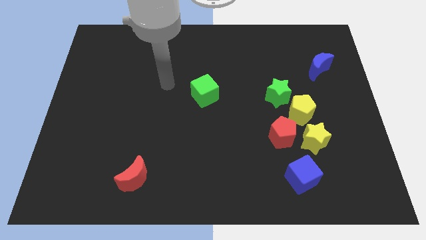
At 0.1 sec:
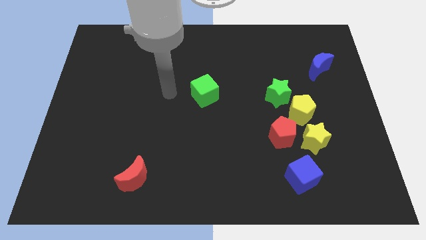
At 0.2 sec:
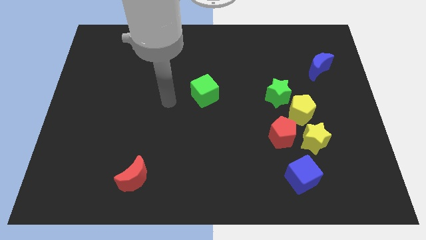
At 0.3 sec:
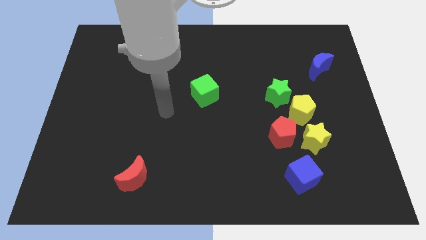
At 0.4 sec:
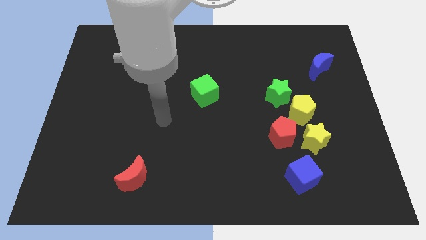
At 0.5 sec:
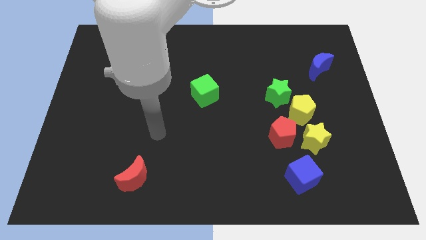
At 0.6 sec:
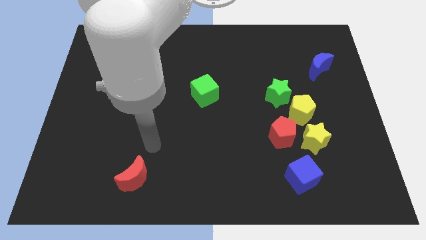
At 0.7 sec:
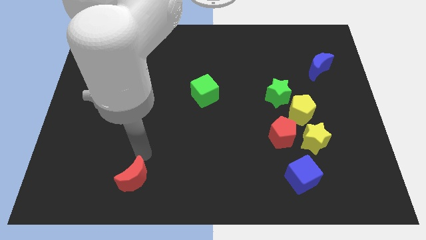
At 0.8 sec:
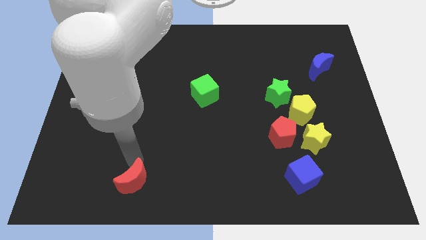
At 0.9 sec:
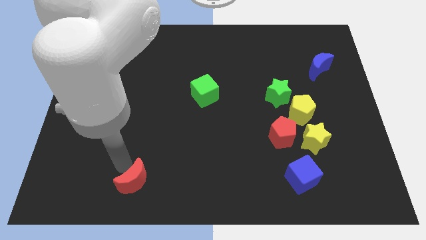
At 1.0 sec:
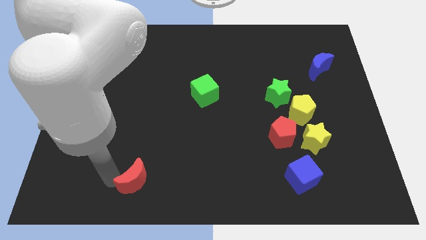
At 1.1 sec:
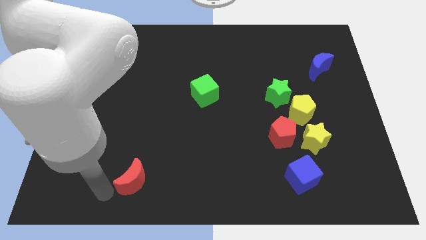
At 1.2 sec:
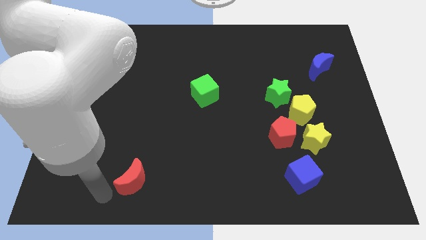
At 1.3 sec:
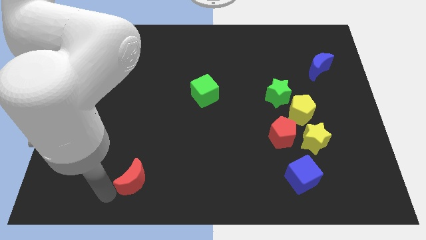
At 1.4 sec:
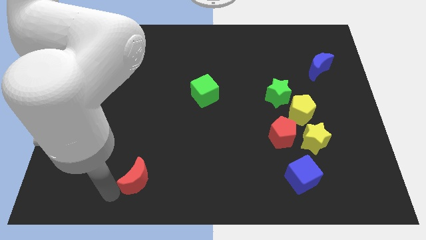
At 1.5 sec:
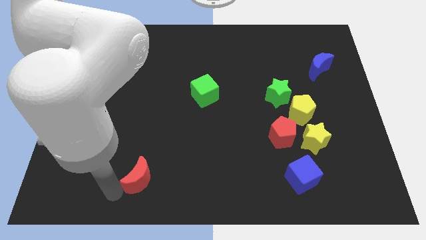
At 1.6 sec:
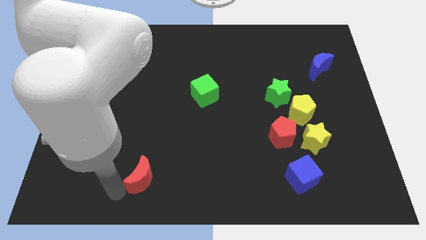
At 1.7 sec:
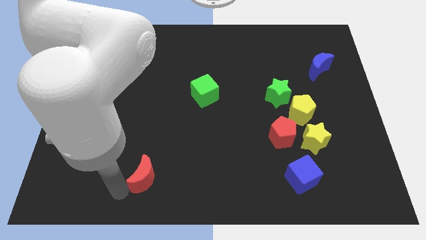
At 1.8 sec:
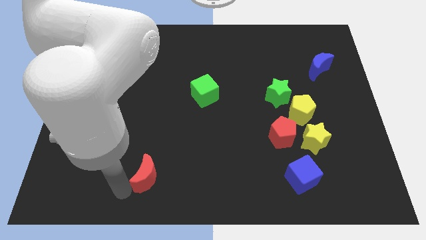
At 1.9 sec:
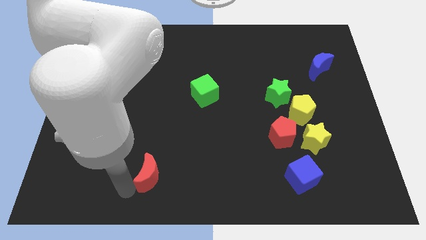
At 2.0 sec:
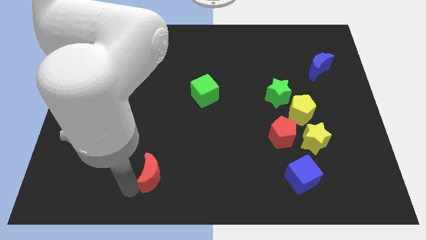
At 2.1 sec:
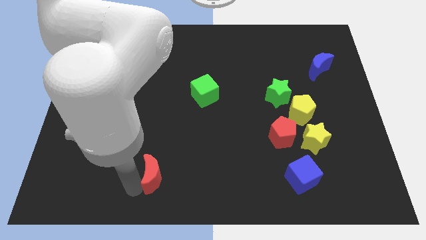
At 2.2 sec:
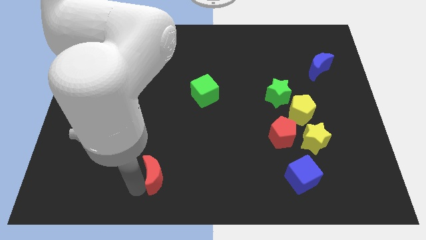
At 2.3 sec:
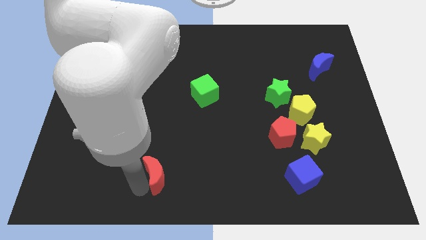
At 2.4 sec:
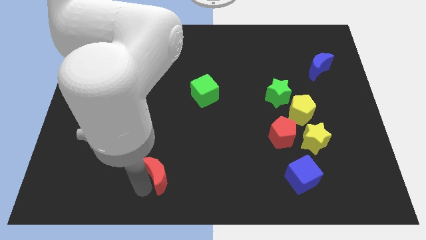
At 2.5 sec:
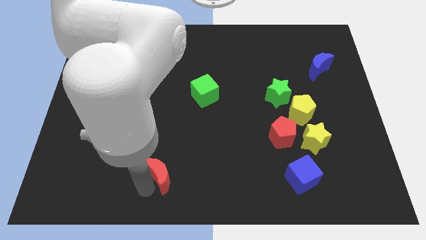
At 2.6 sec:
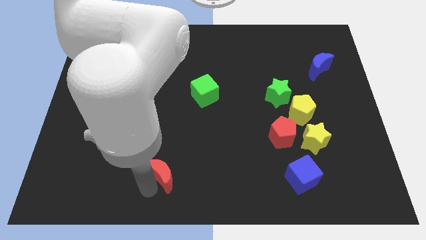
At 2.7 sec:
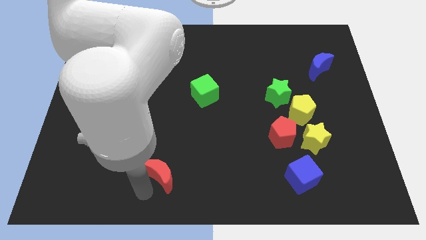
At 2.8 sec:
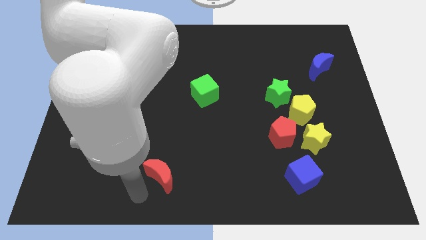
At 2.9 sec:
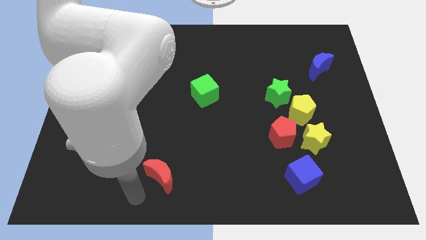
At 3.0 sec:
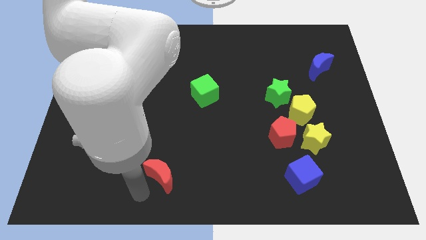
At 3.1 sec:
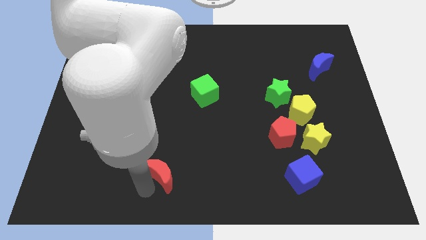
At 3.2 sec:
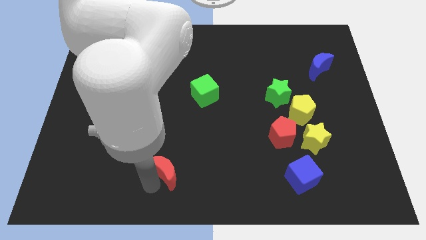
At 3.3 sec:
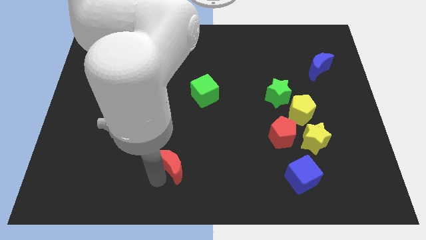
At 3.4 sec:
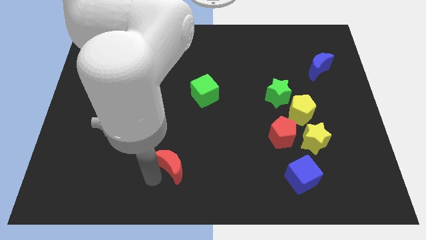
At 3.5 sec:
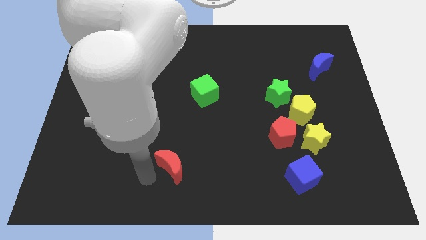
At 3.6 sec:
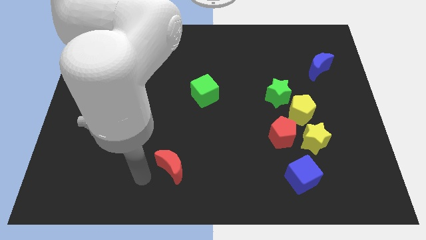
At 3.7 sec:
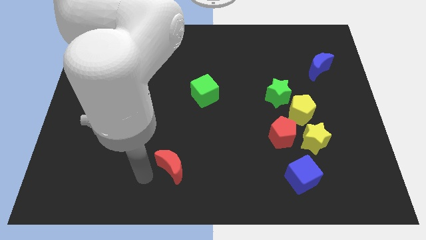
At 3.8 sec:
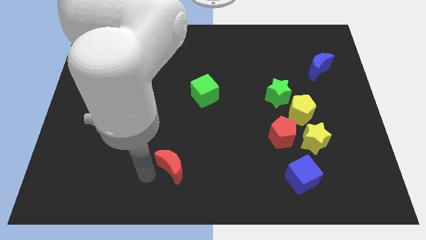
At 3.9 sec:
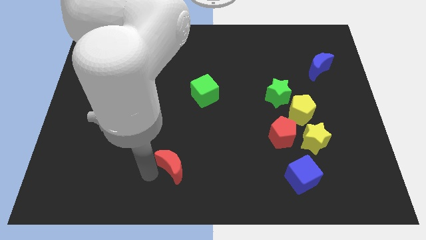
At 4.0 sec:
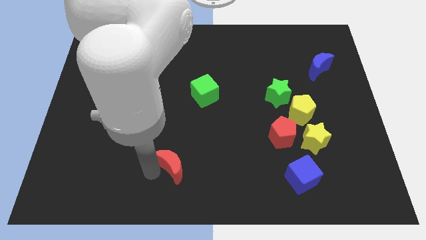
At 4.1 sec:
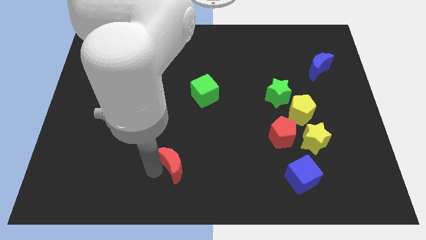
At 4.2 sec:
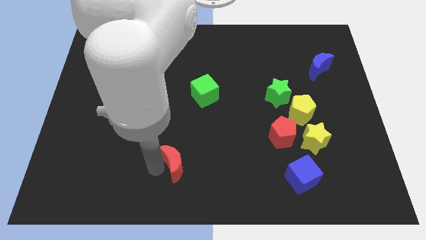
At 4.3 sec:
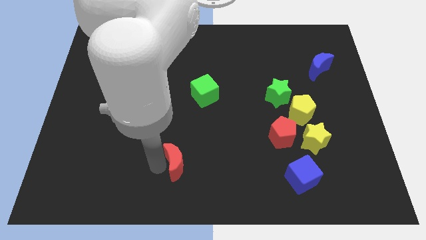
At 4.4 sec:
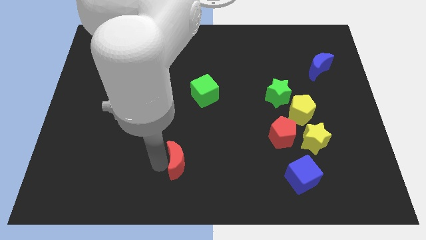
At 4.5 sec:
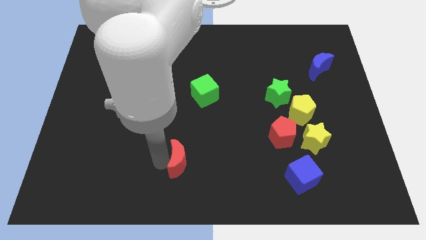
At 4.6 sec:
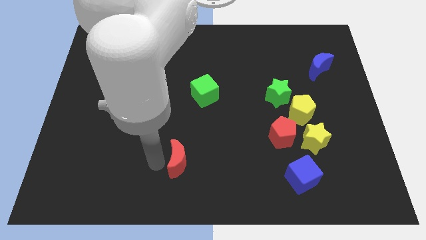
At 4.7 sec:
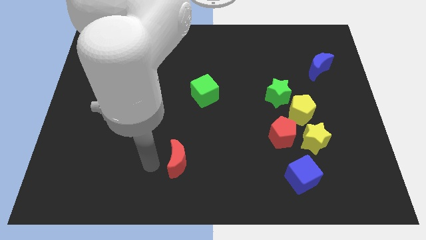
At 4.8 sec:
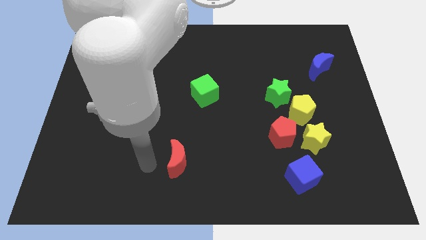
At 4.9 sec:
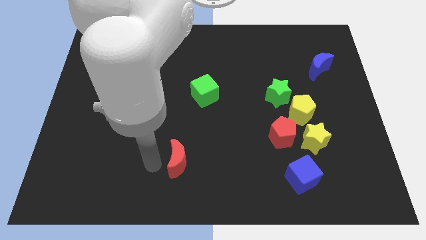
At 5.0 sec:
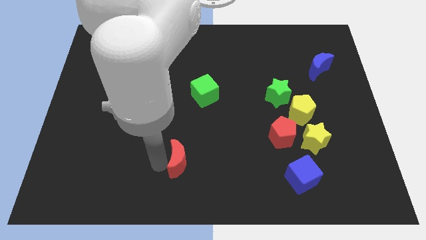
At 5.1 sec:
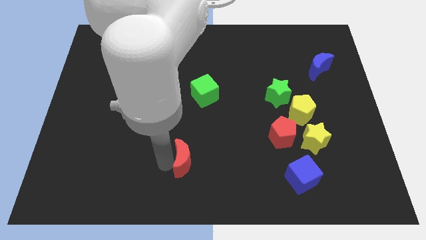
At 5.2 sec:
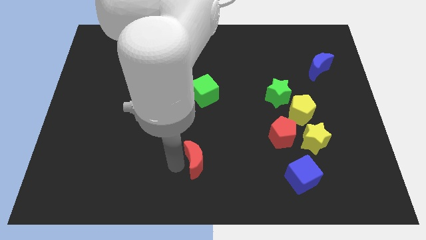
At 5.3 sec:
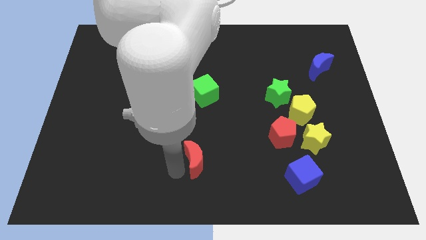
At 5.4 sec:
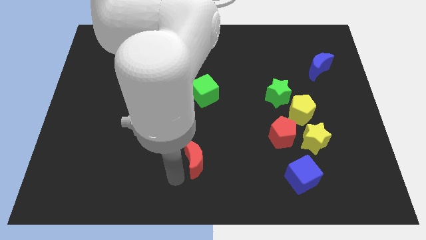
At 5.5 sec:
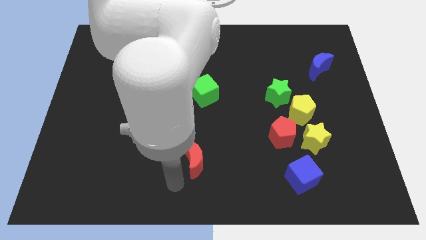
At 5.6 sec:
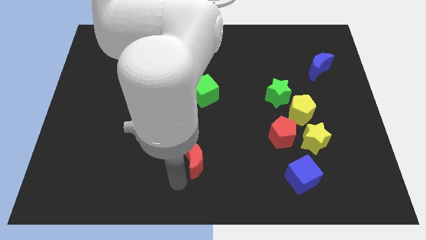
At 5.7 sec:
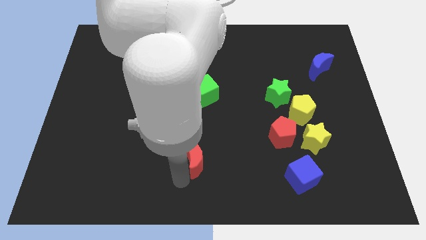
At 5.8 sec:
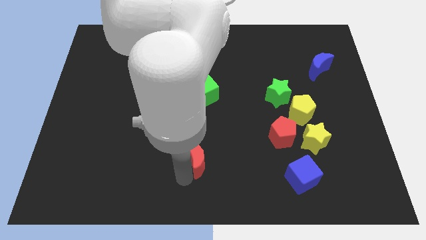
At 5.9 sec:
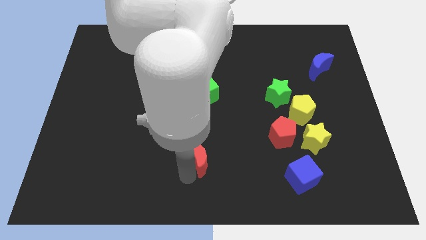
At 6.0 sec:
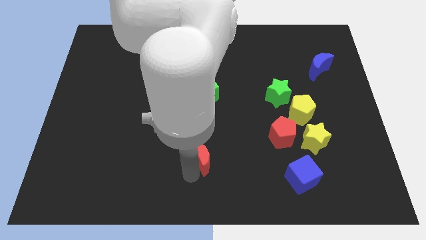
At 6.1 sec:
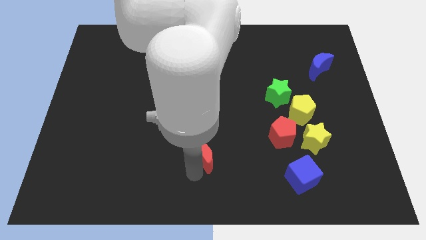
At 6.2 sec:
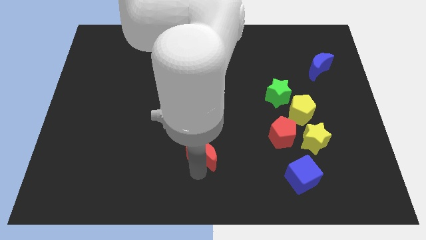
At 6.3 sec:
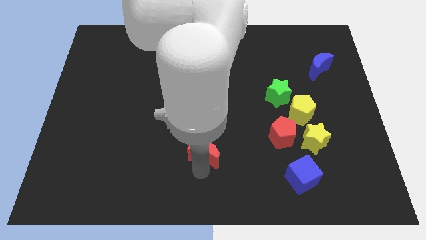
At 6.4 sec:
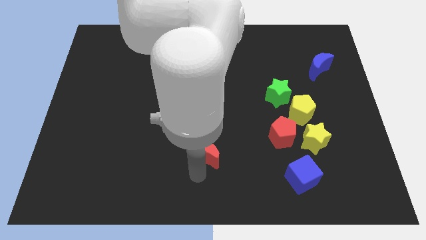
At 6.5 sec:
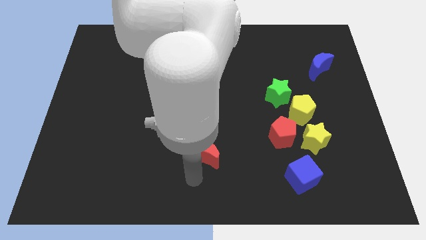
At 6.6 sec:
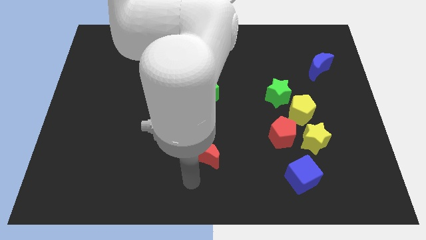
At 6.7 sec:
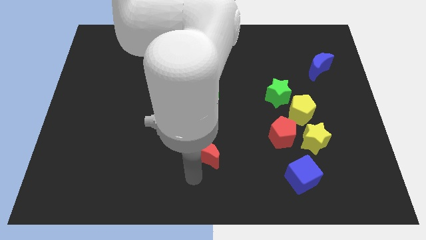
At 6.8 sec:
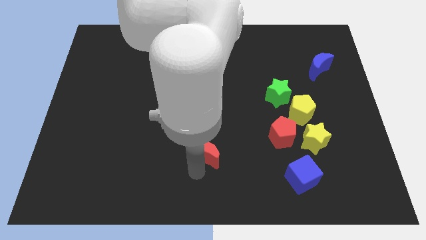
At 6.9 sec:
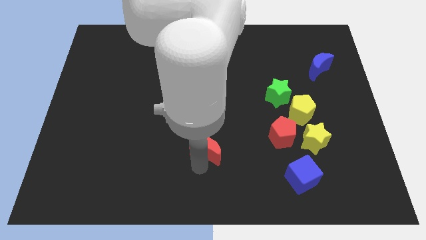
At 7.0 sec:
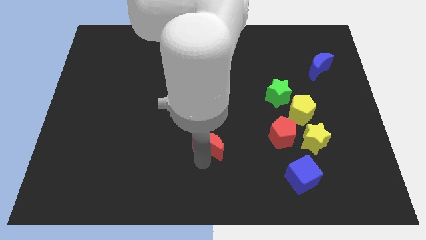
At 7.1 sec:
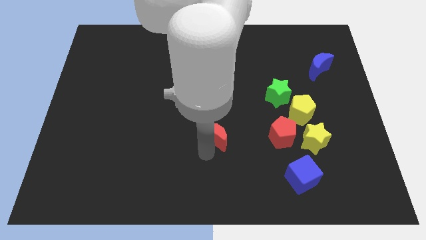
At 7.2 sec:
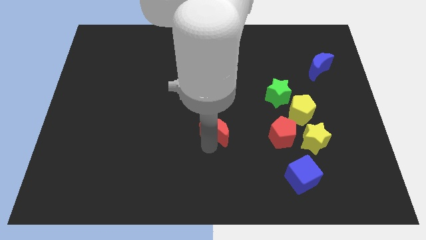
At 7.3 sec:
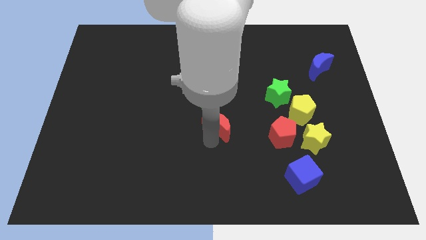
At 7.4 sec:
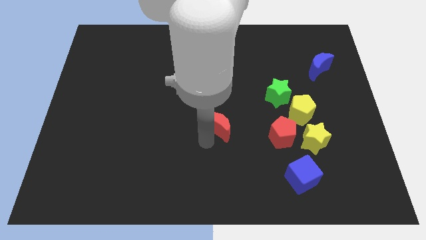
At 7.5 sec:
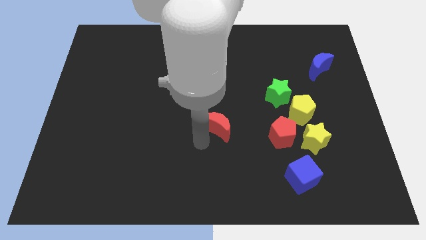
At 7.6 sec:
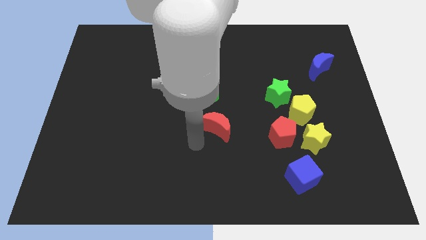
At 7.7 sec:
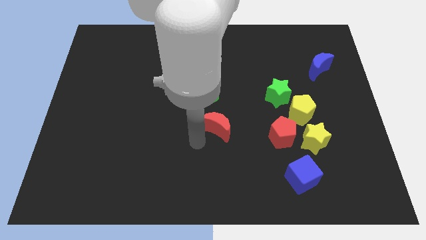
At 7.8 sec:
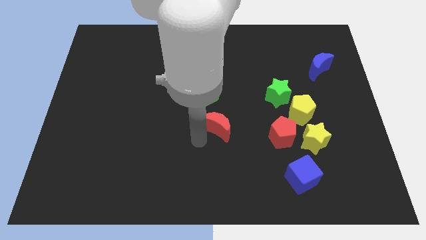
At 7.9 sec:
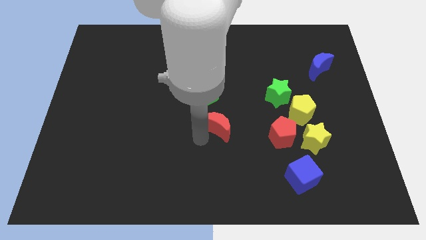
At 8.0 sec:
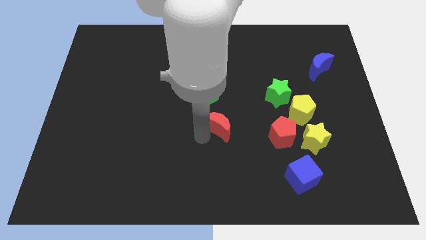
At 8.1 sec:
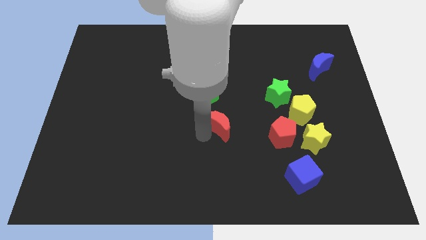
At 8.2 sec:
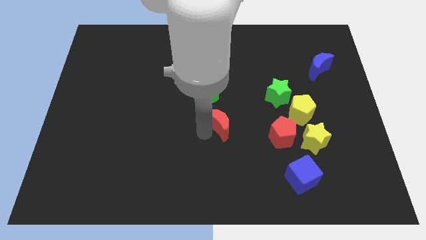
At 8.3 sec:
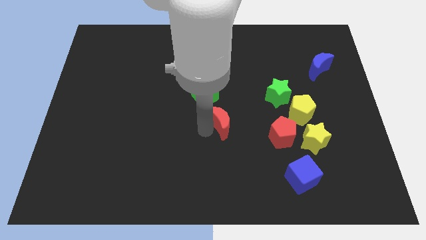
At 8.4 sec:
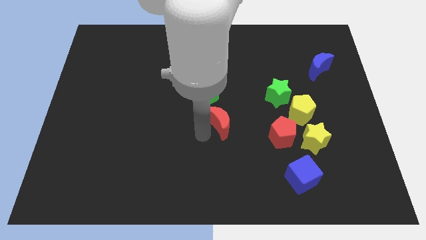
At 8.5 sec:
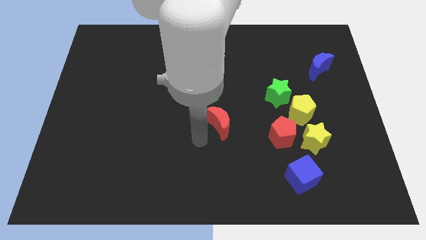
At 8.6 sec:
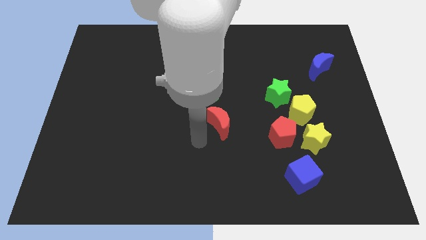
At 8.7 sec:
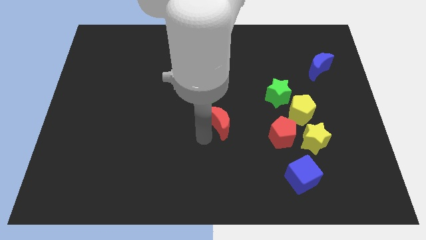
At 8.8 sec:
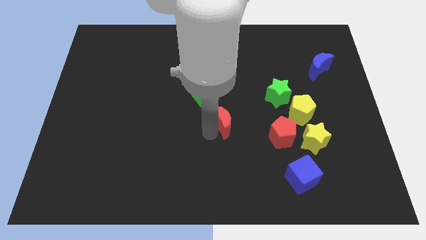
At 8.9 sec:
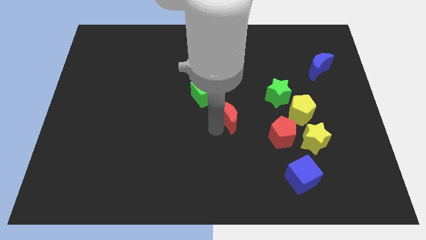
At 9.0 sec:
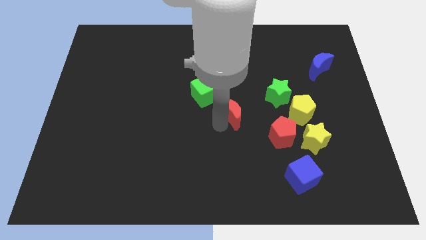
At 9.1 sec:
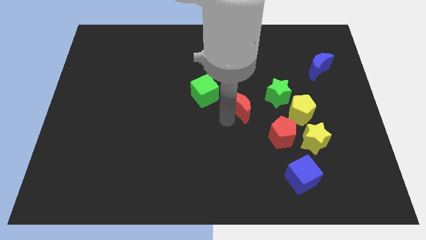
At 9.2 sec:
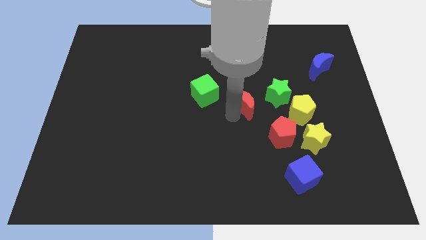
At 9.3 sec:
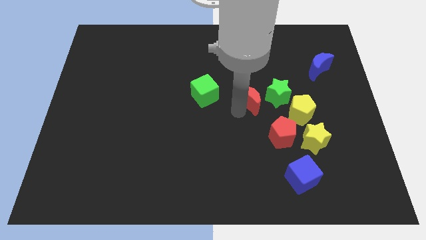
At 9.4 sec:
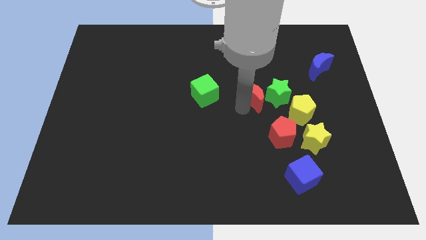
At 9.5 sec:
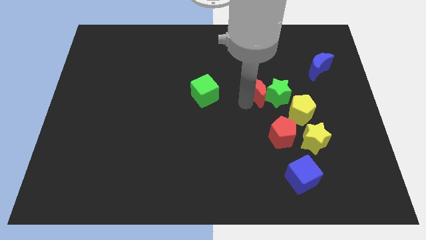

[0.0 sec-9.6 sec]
slide the red moon to the top left of the yellow pentagon
